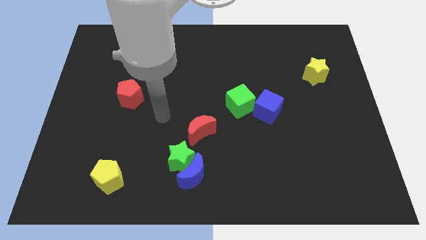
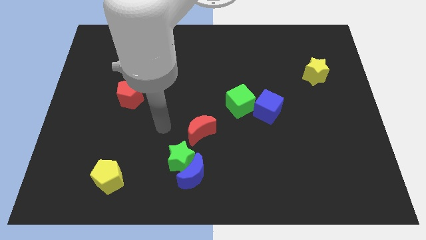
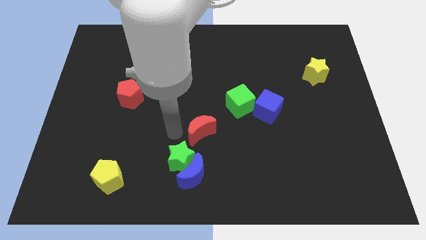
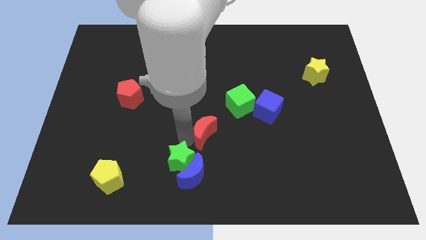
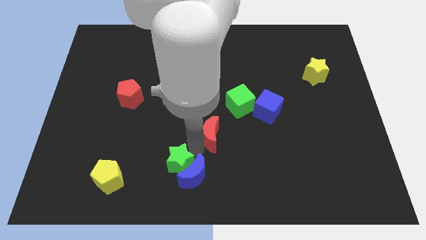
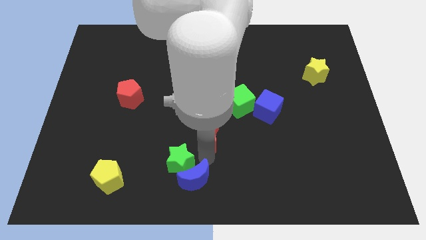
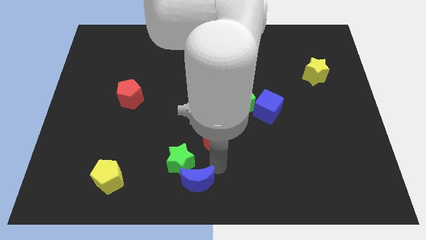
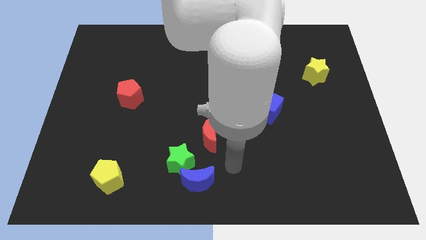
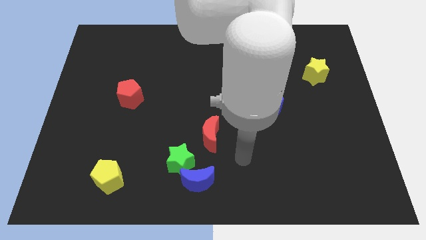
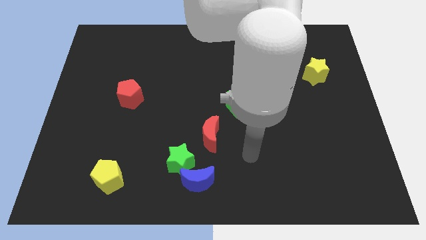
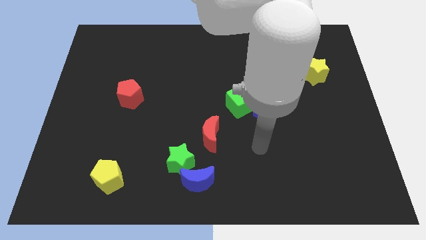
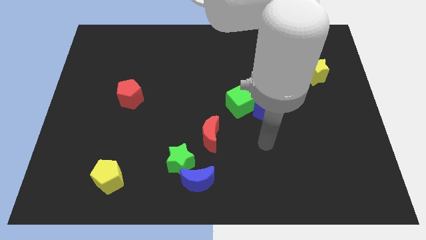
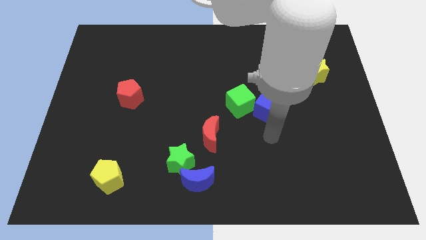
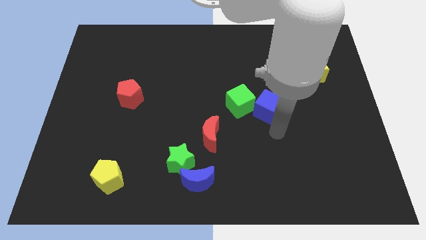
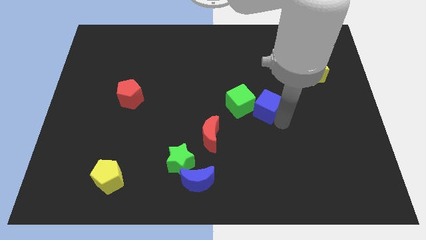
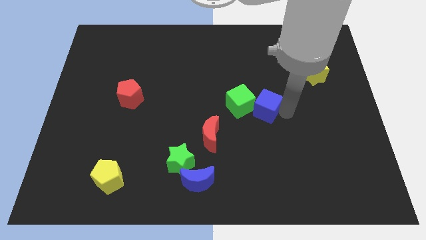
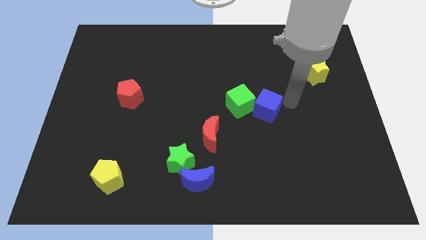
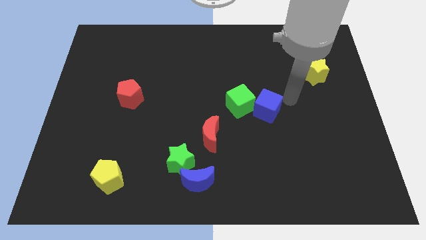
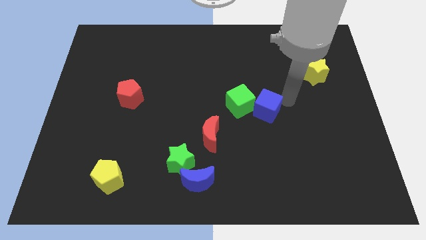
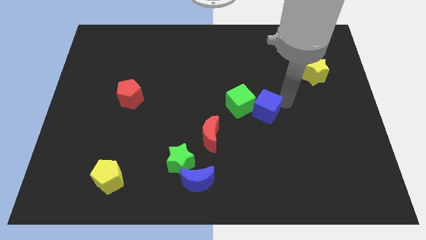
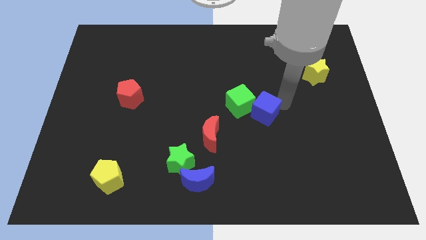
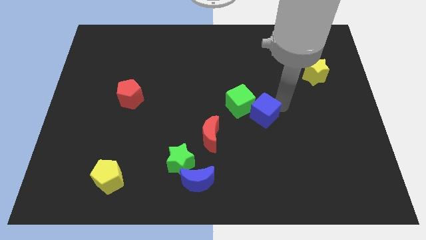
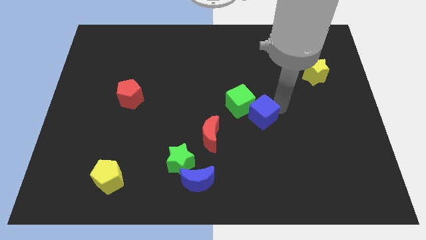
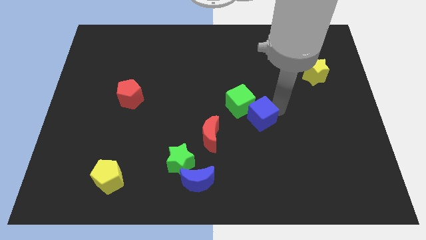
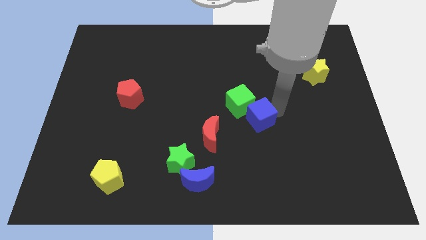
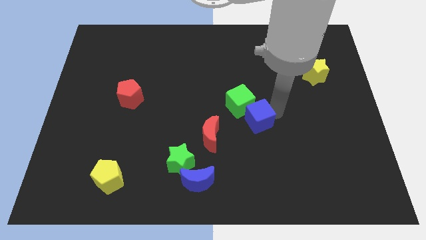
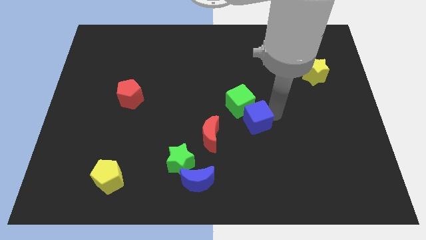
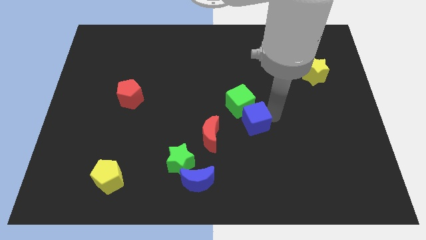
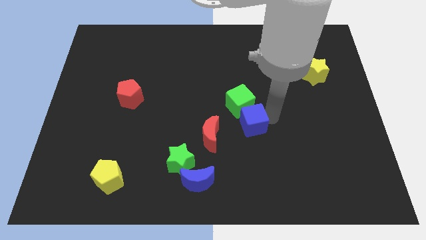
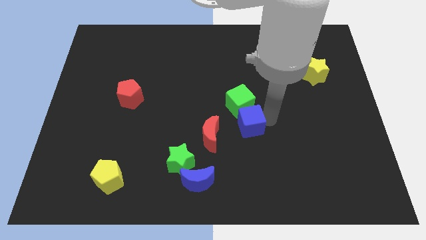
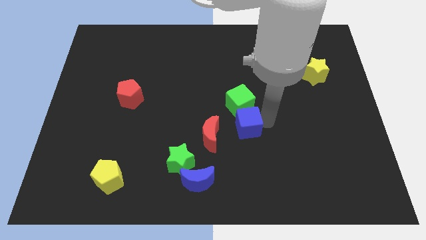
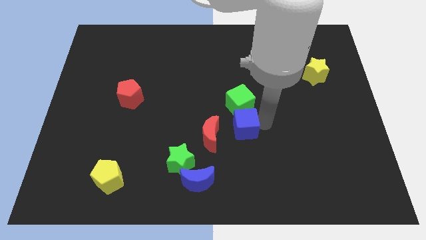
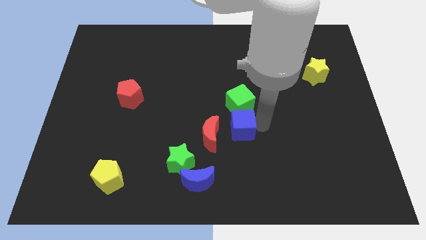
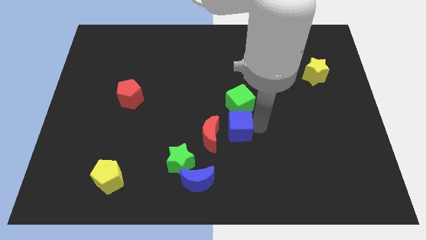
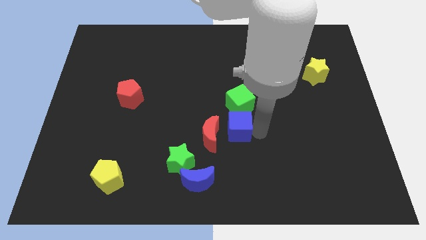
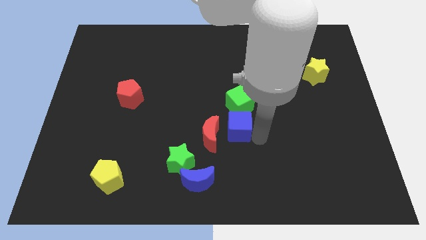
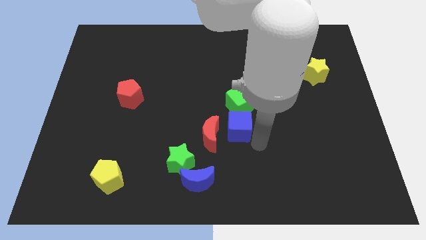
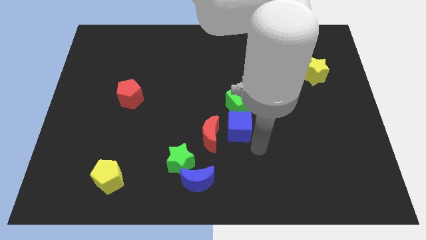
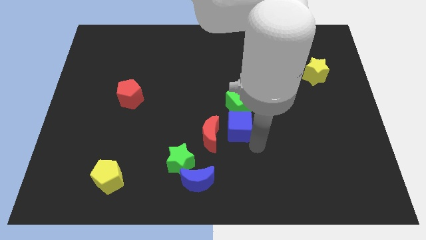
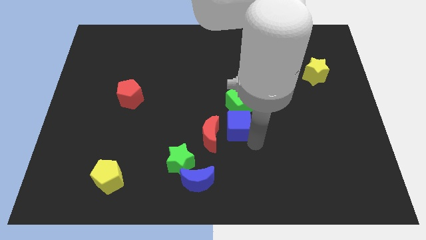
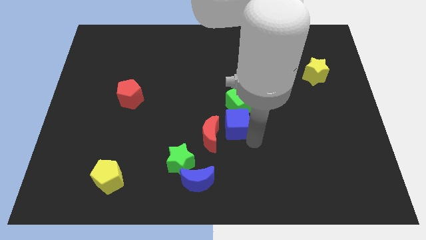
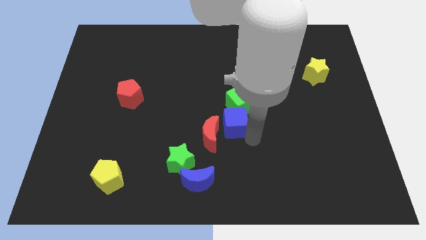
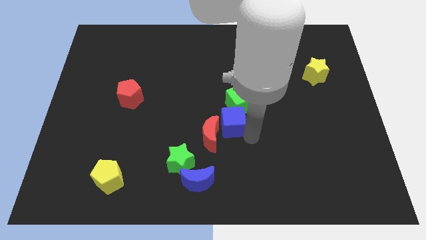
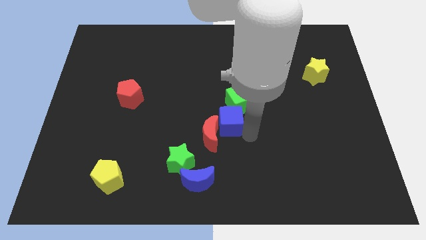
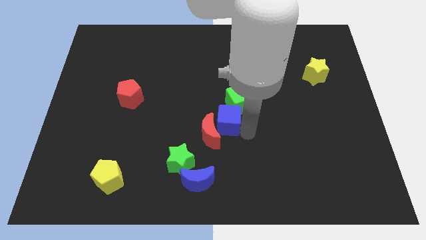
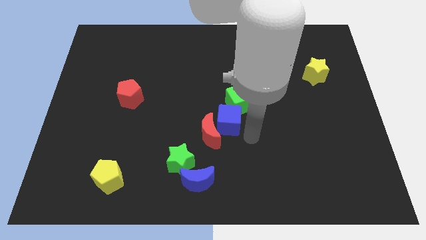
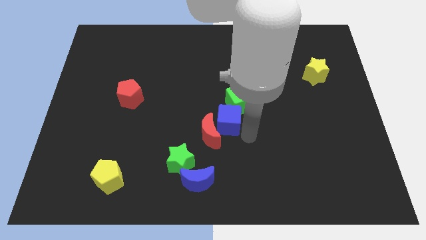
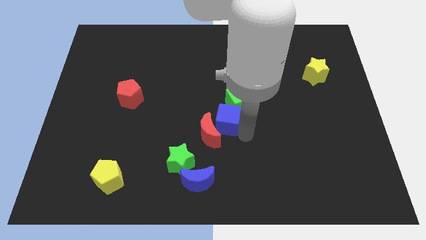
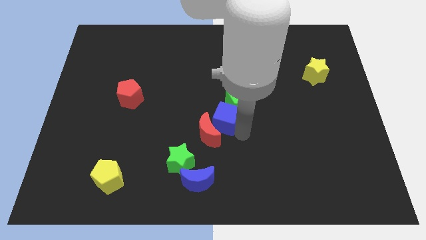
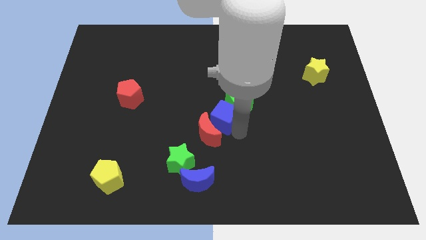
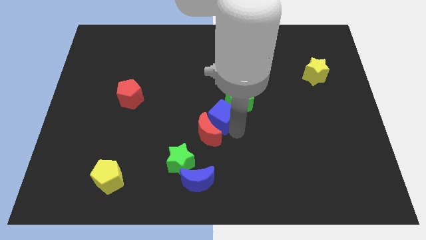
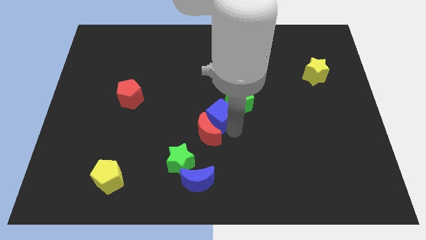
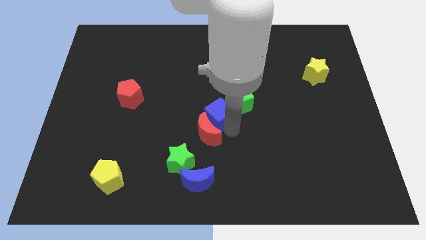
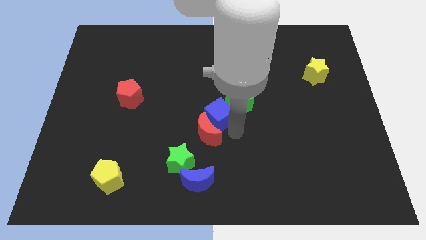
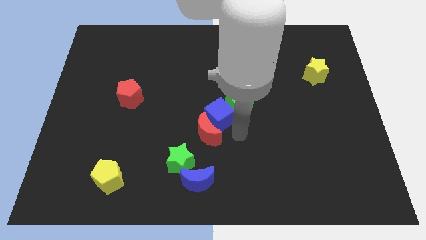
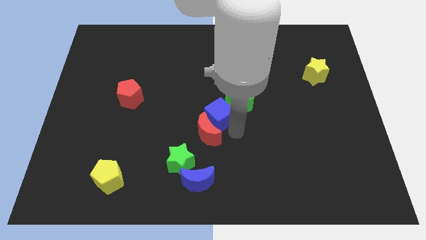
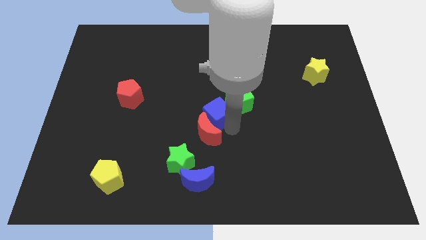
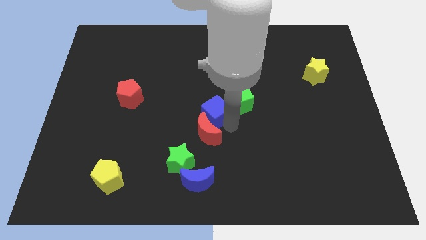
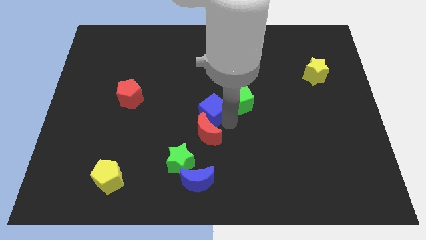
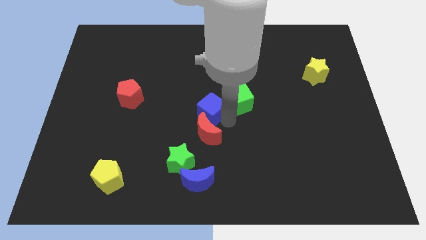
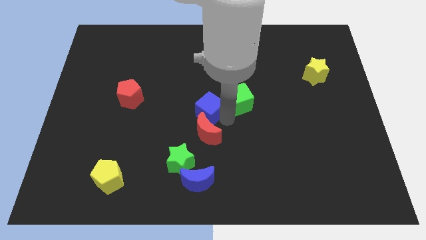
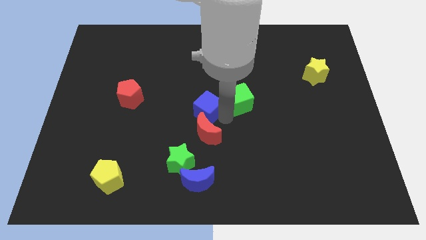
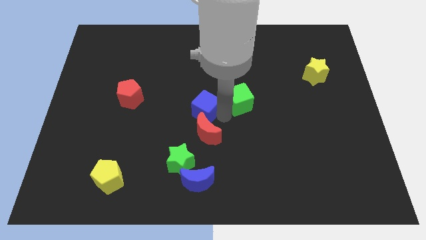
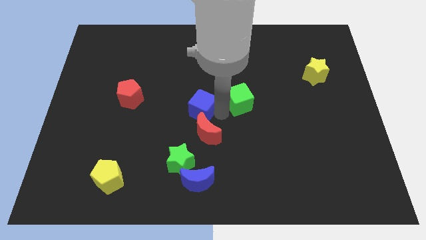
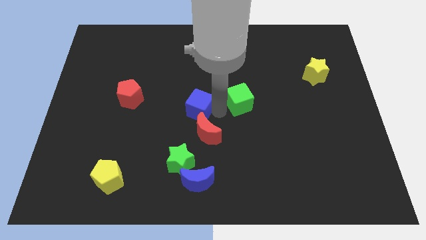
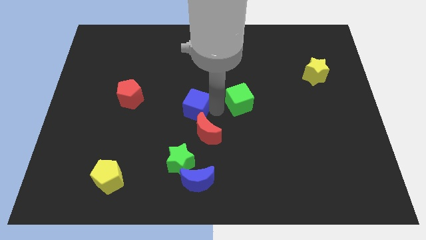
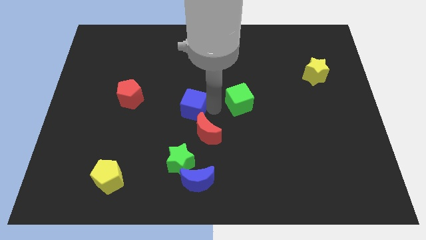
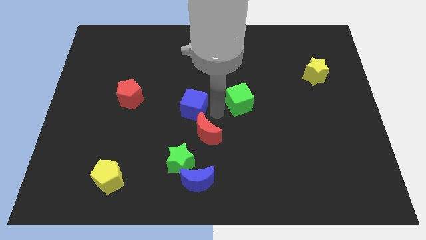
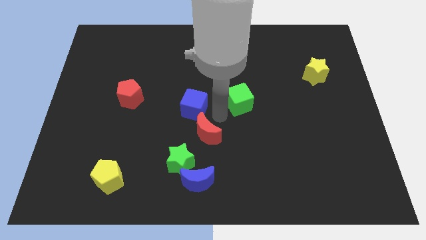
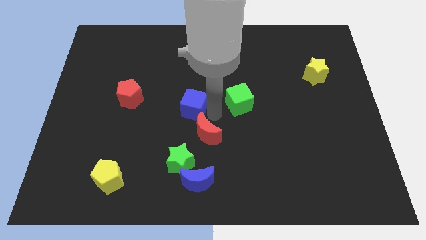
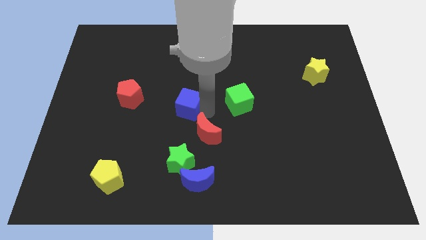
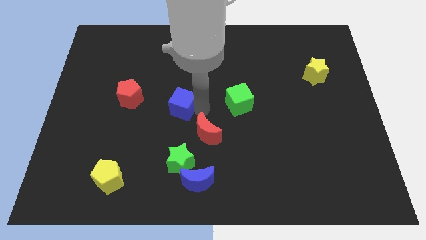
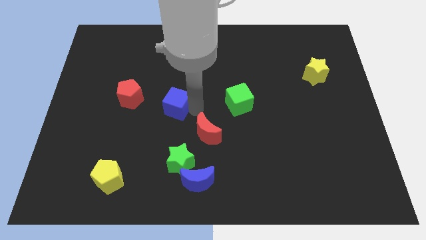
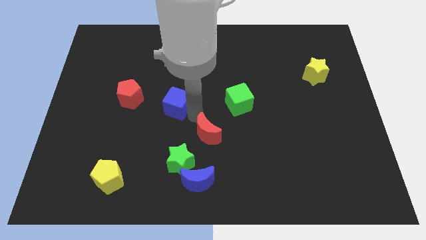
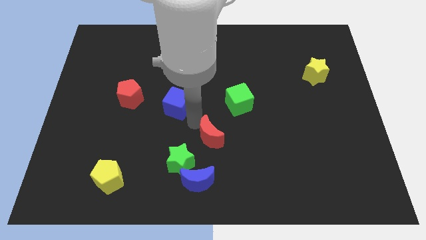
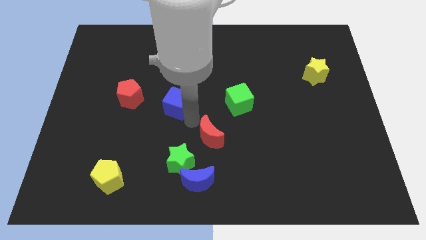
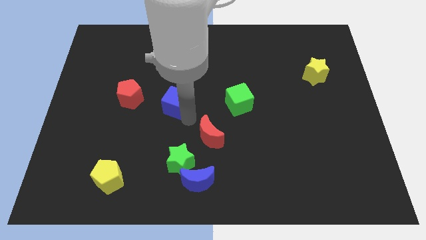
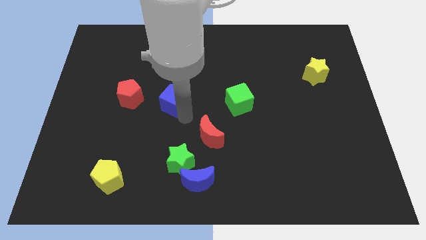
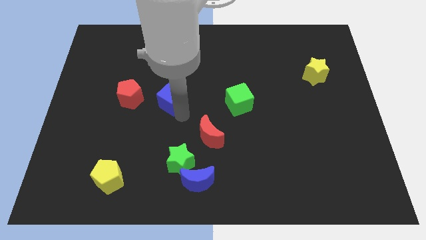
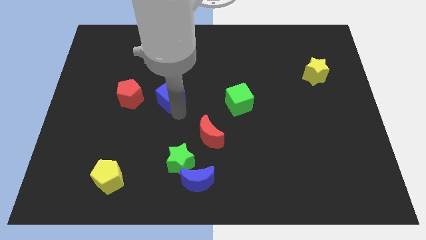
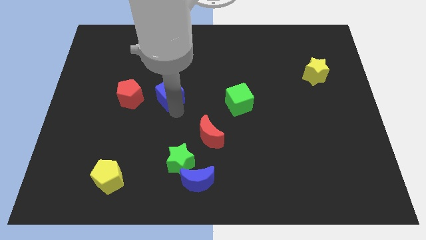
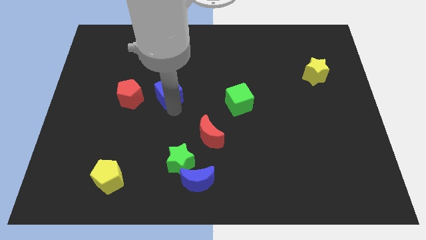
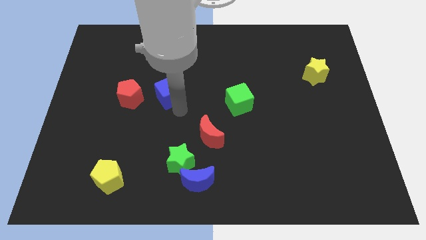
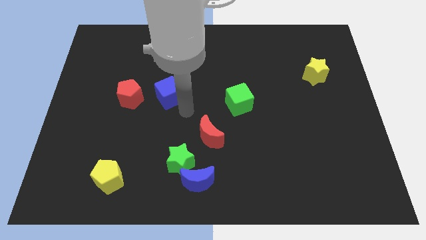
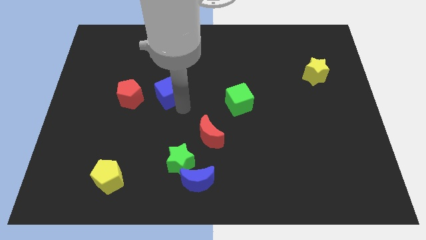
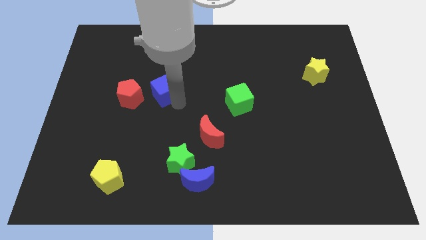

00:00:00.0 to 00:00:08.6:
put the blue cube diagonally up and to the right of the red pentagon
